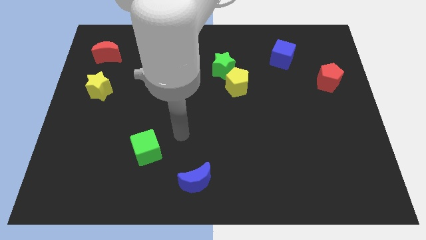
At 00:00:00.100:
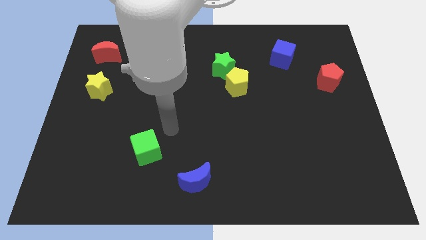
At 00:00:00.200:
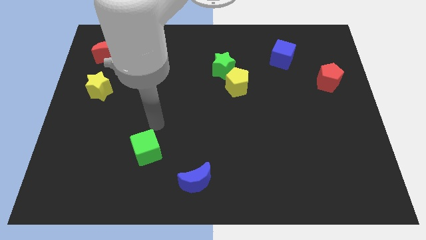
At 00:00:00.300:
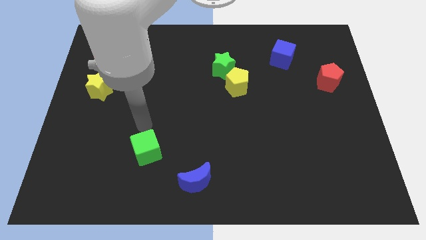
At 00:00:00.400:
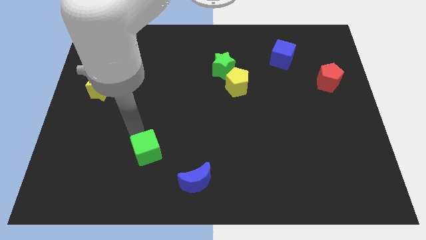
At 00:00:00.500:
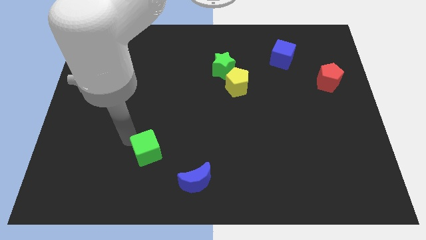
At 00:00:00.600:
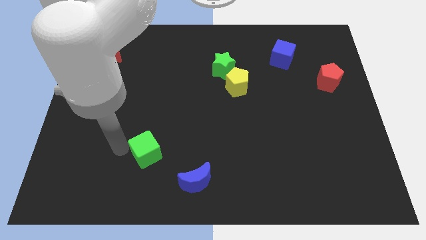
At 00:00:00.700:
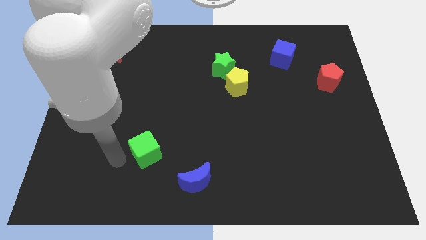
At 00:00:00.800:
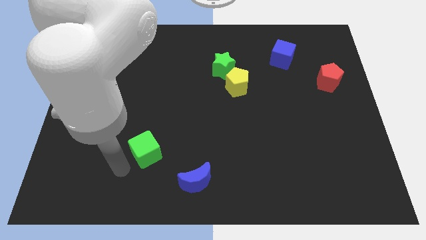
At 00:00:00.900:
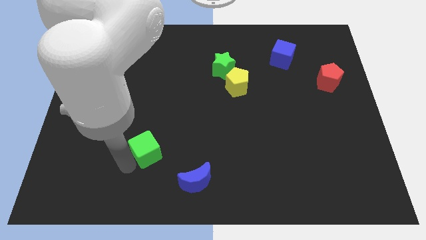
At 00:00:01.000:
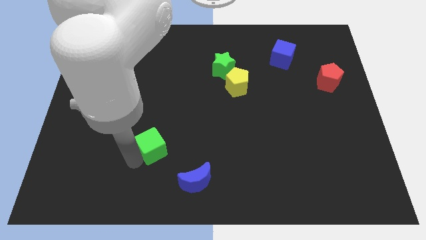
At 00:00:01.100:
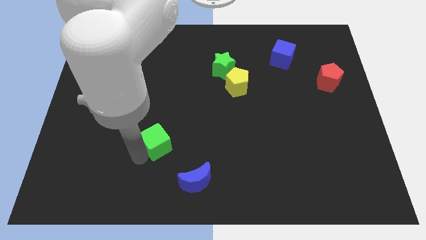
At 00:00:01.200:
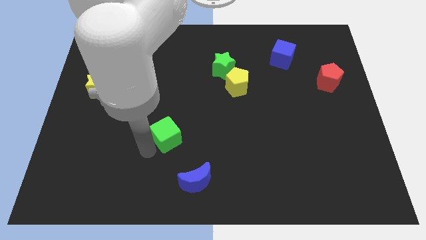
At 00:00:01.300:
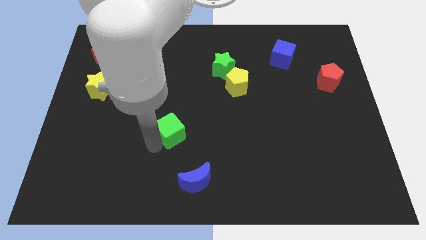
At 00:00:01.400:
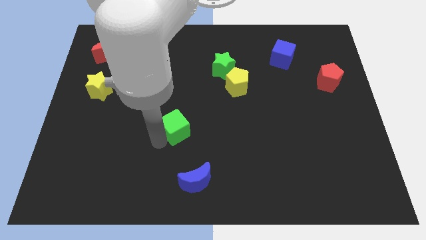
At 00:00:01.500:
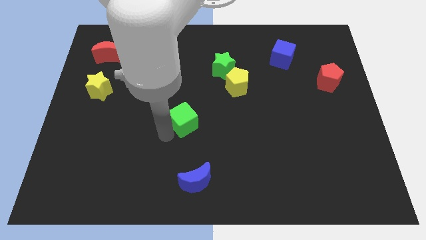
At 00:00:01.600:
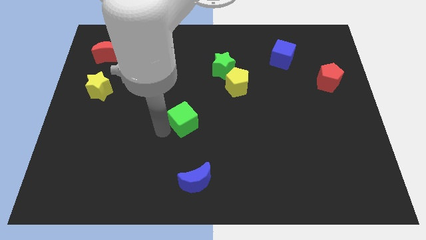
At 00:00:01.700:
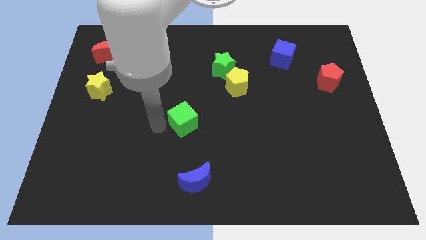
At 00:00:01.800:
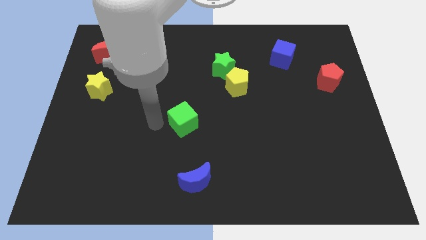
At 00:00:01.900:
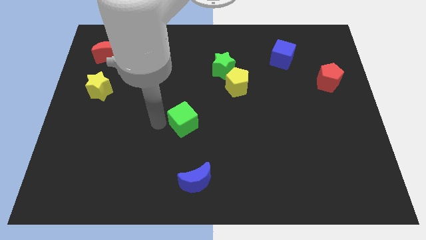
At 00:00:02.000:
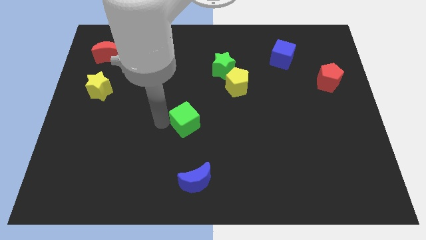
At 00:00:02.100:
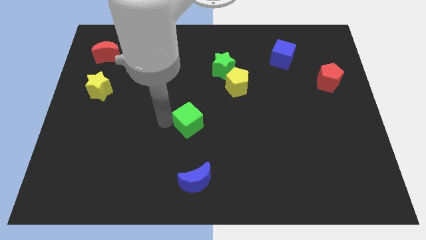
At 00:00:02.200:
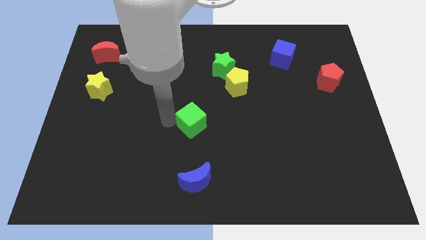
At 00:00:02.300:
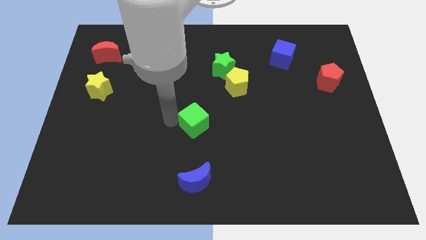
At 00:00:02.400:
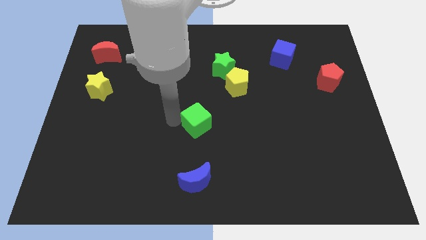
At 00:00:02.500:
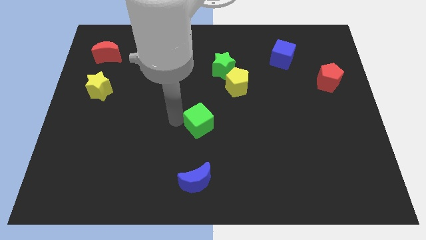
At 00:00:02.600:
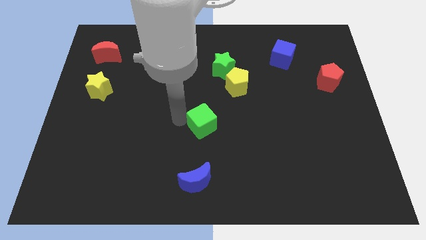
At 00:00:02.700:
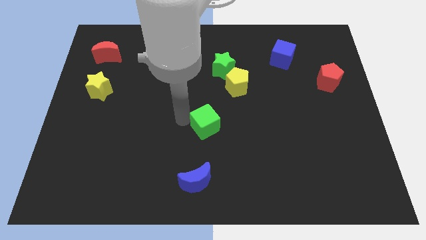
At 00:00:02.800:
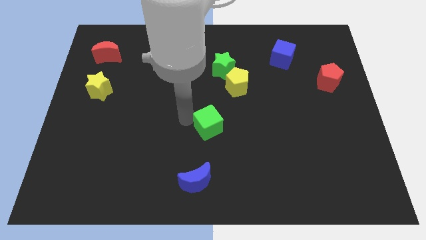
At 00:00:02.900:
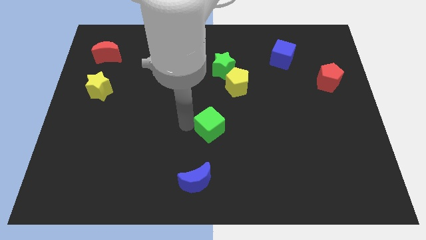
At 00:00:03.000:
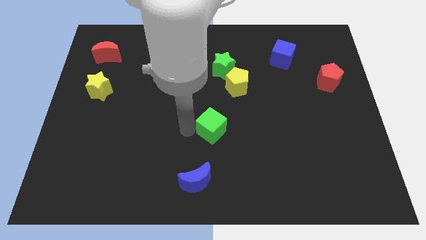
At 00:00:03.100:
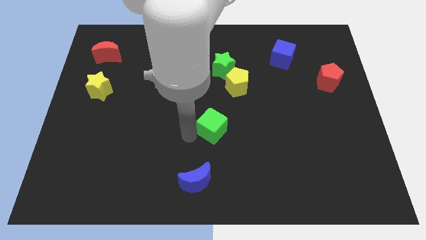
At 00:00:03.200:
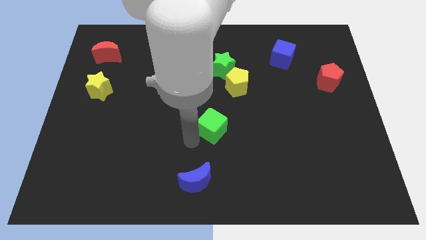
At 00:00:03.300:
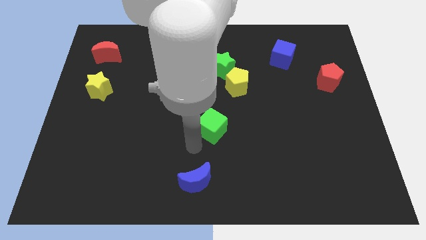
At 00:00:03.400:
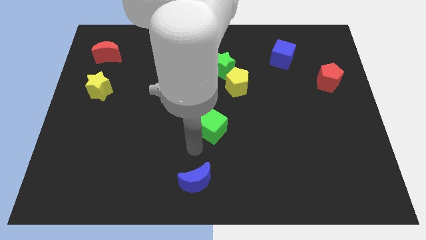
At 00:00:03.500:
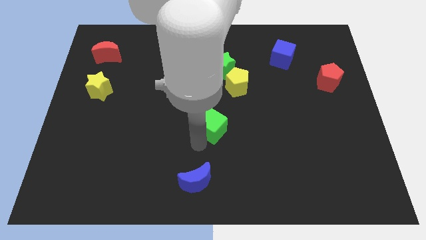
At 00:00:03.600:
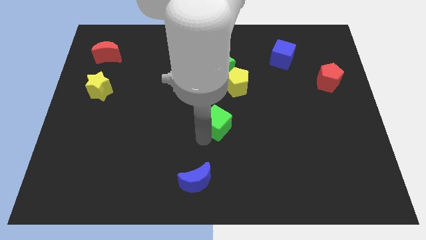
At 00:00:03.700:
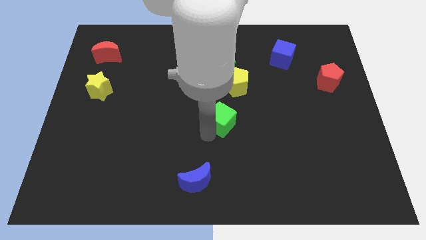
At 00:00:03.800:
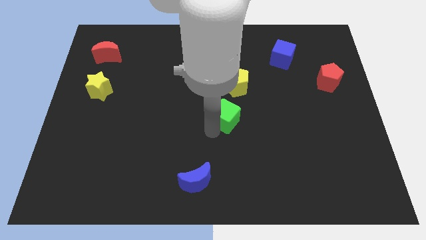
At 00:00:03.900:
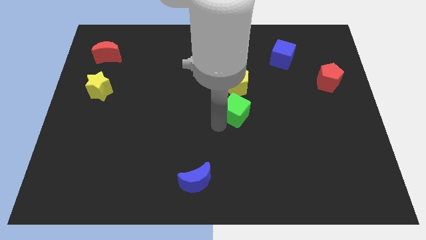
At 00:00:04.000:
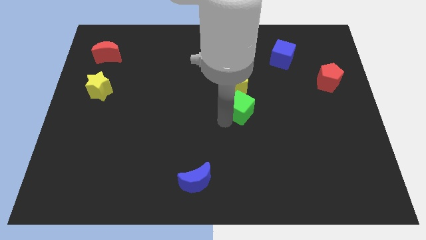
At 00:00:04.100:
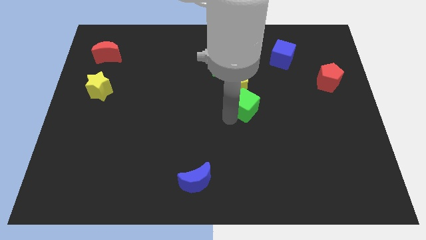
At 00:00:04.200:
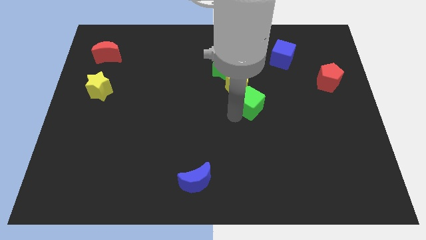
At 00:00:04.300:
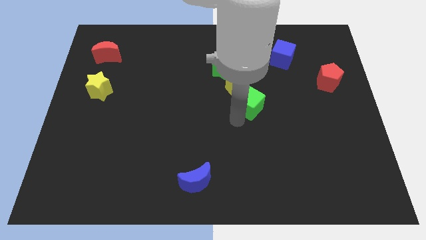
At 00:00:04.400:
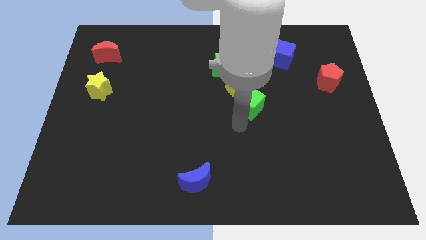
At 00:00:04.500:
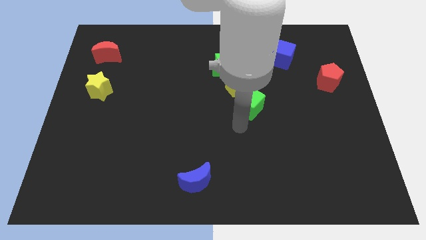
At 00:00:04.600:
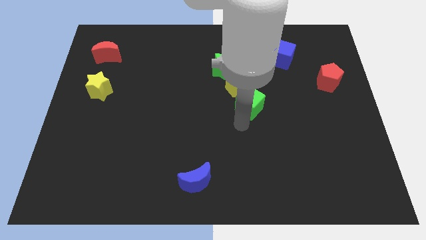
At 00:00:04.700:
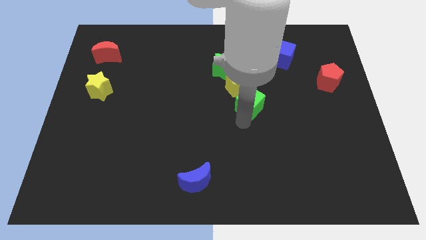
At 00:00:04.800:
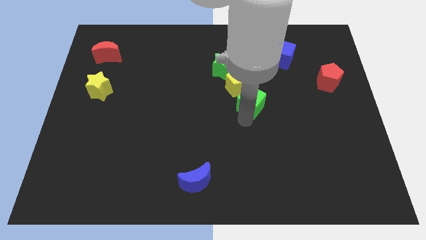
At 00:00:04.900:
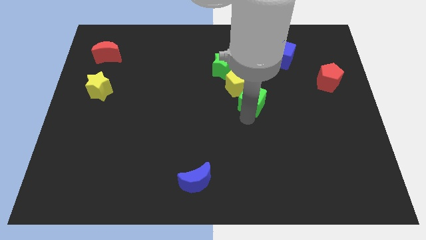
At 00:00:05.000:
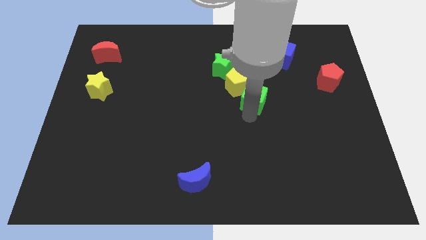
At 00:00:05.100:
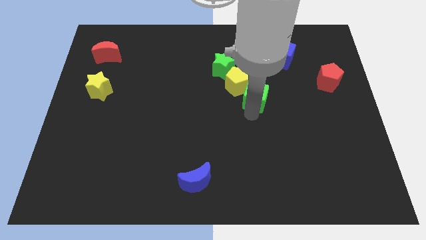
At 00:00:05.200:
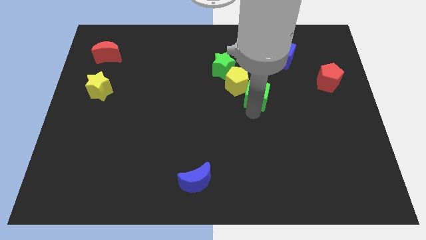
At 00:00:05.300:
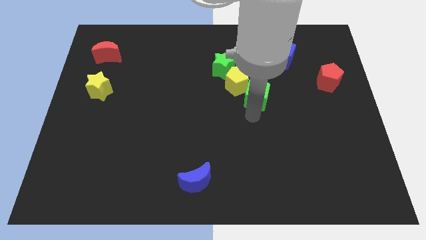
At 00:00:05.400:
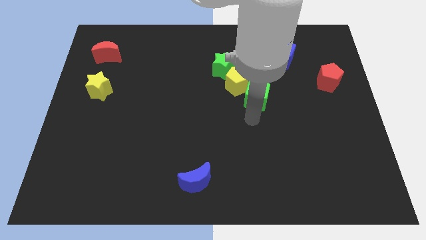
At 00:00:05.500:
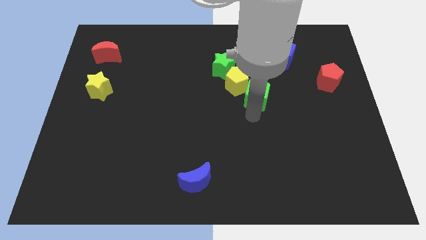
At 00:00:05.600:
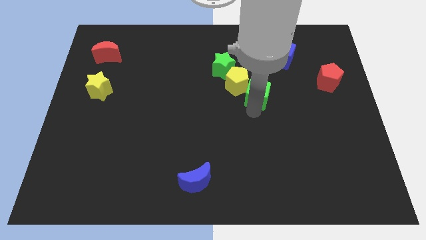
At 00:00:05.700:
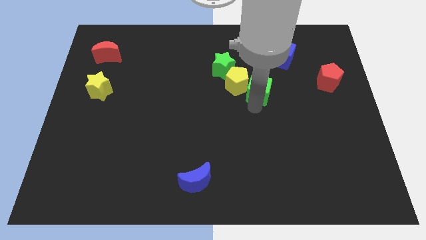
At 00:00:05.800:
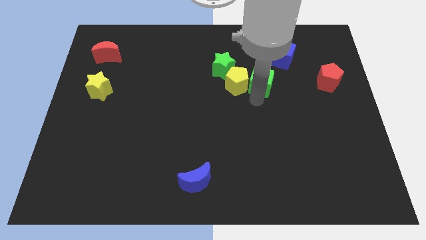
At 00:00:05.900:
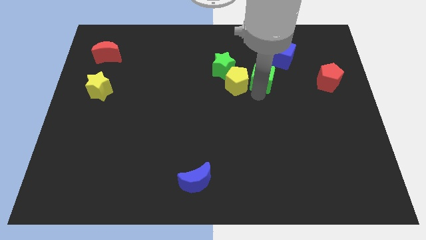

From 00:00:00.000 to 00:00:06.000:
move the green cube to the right side of the green star
